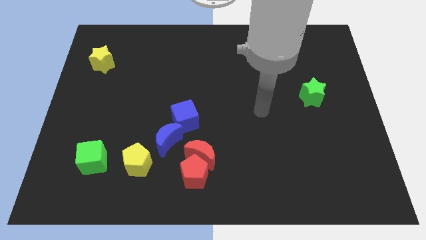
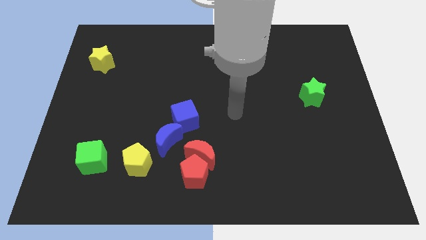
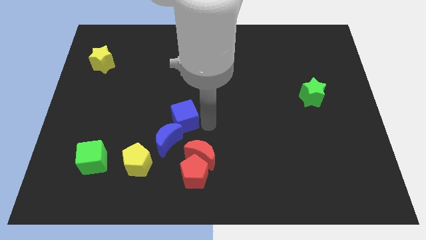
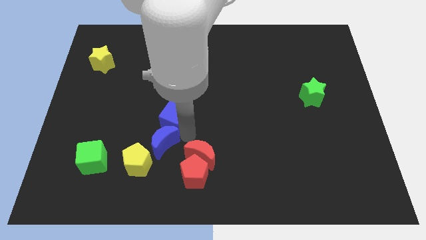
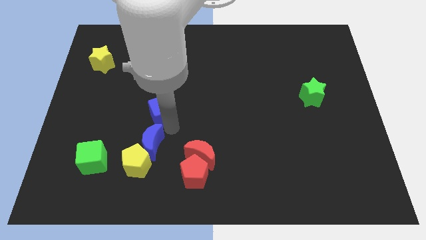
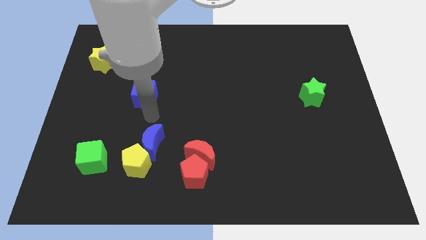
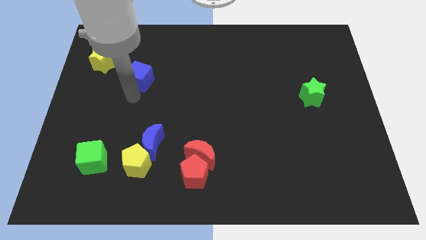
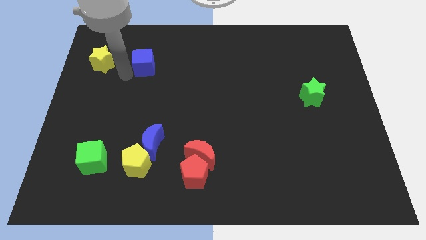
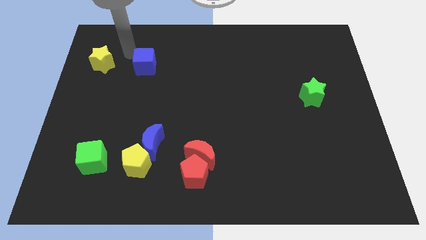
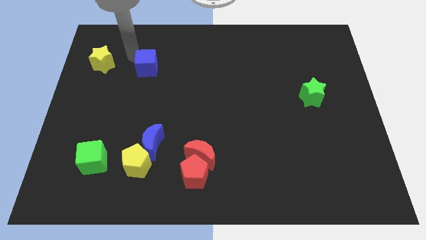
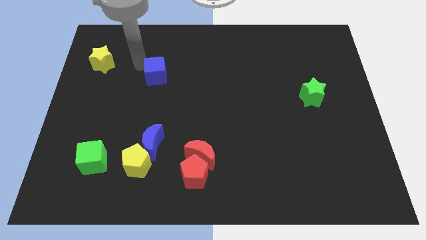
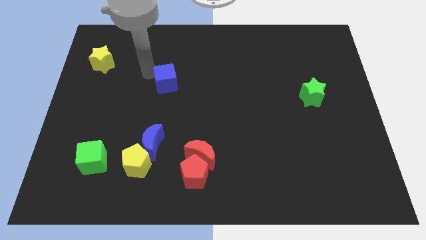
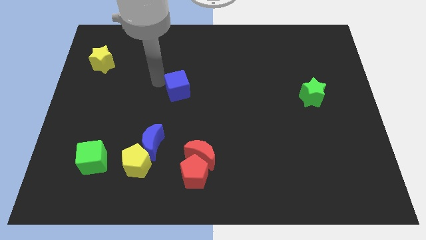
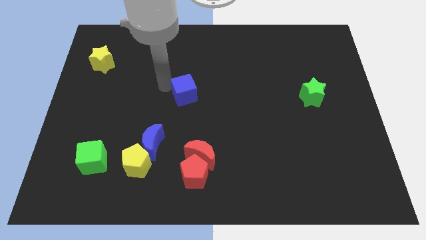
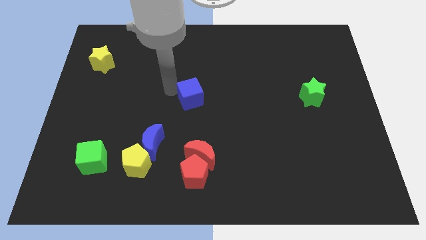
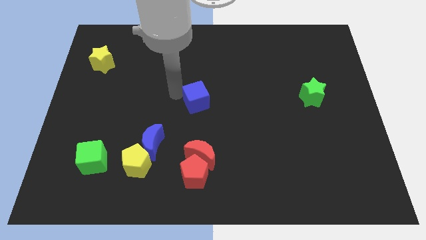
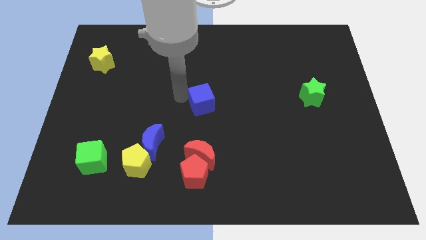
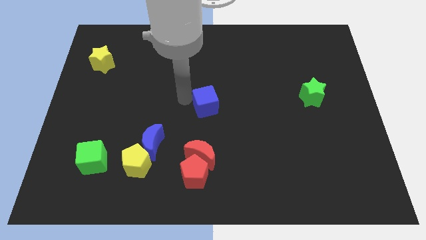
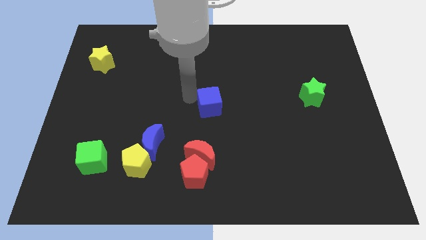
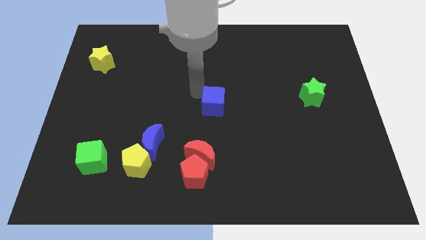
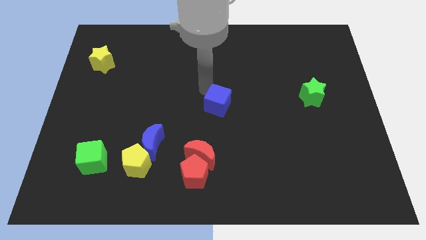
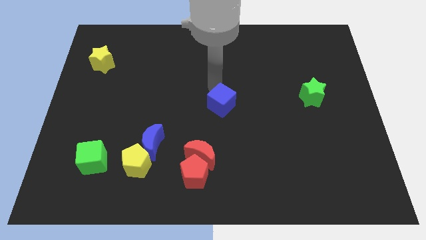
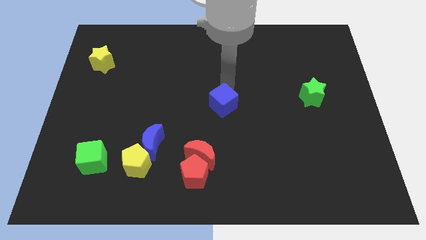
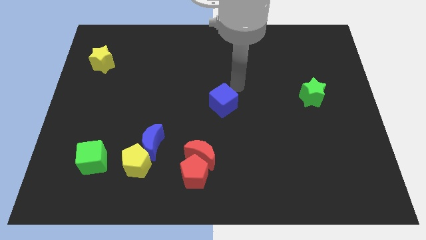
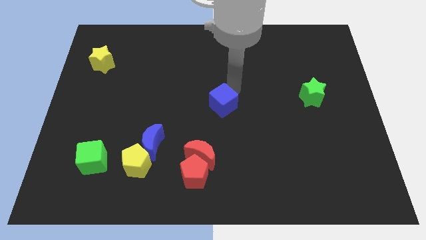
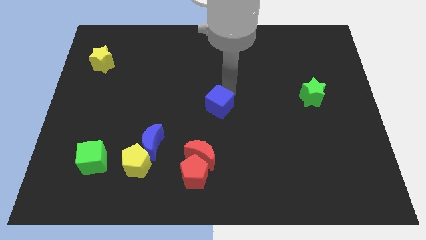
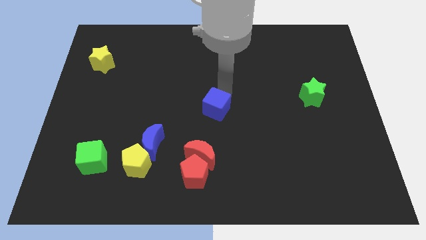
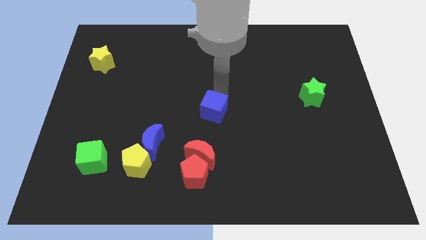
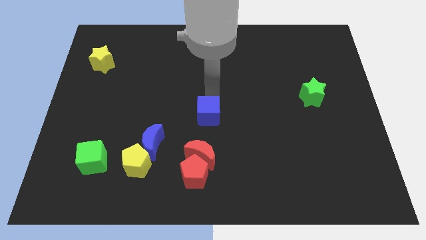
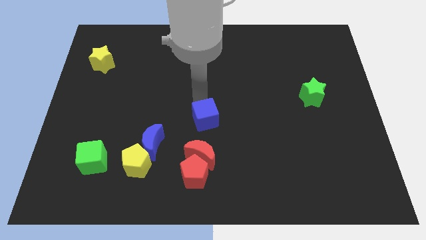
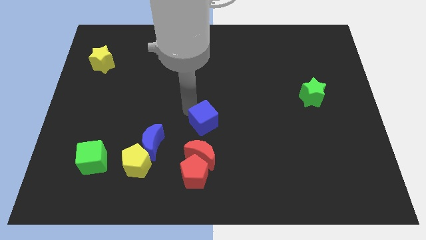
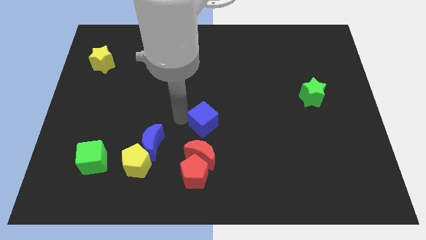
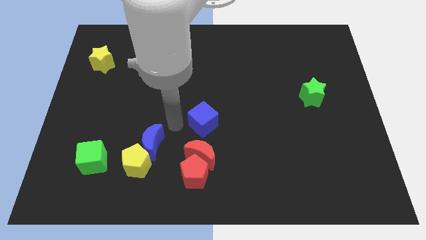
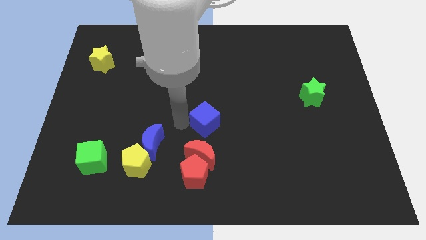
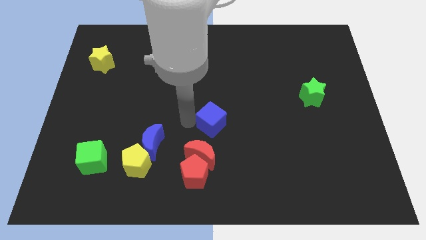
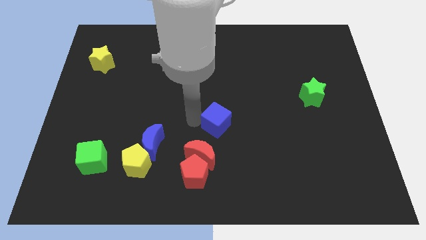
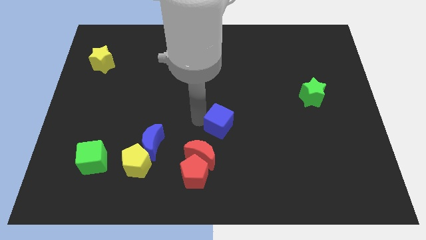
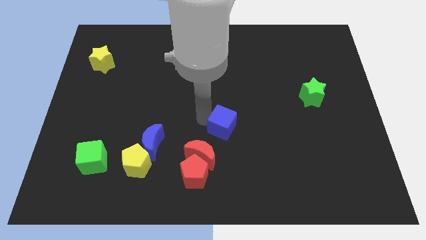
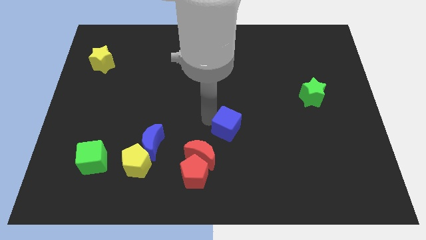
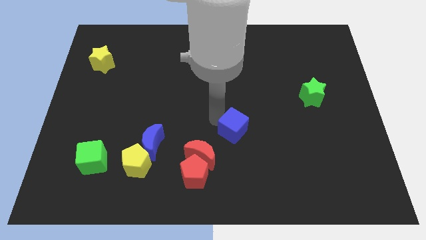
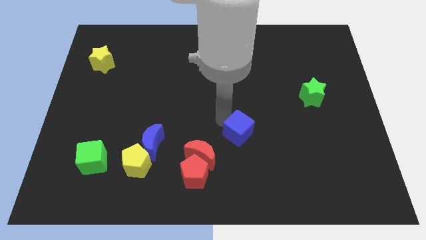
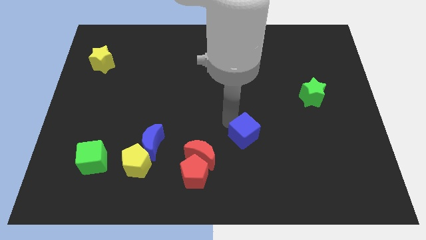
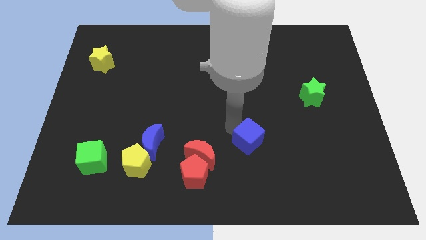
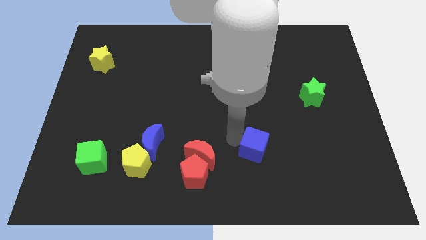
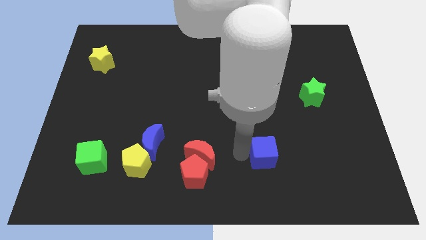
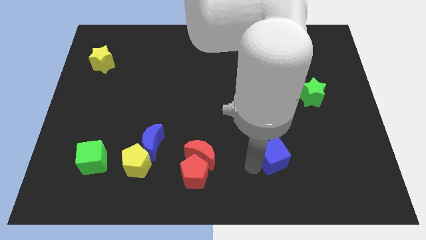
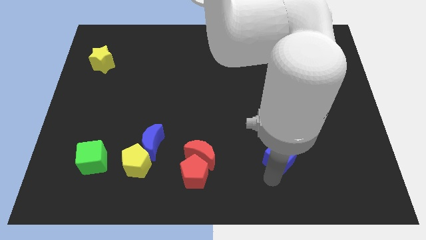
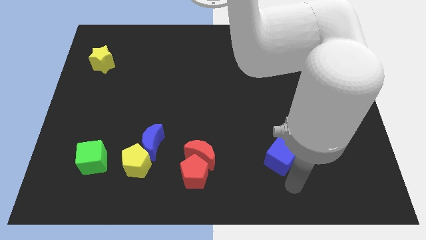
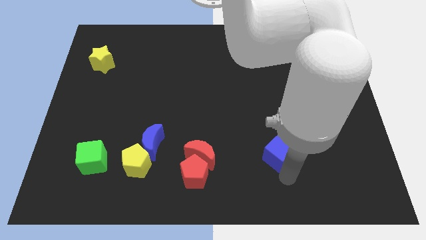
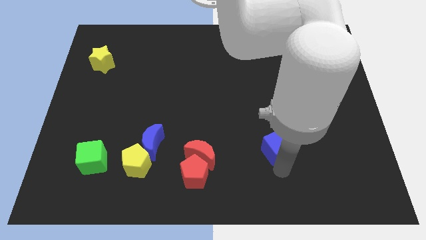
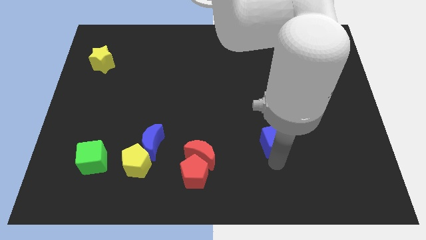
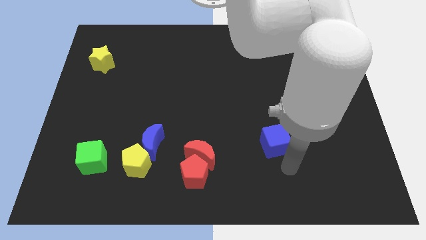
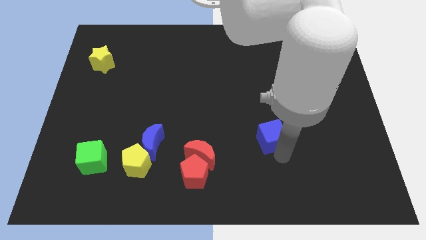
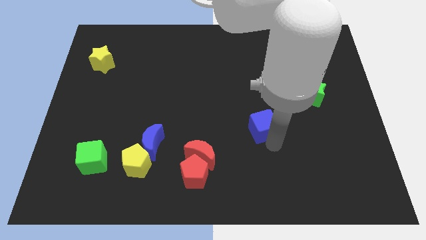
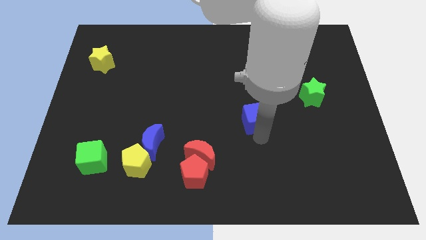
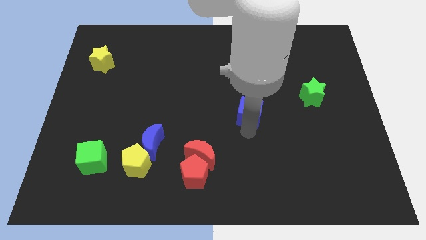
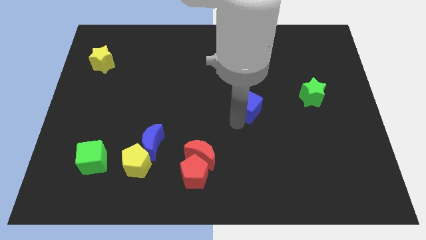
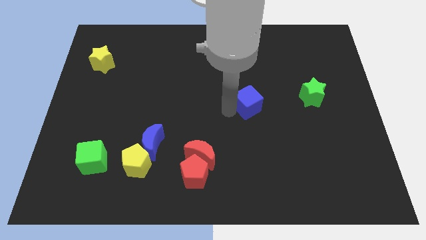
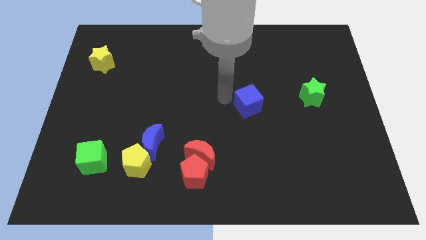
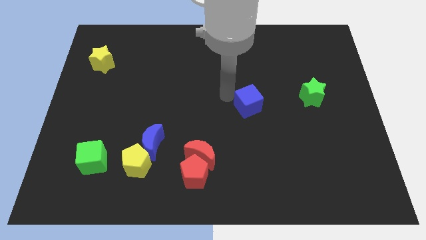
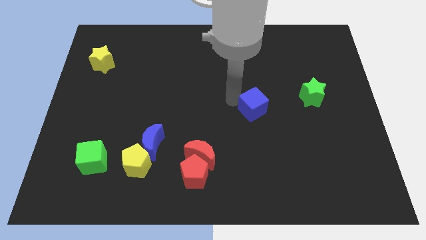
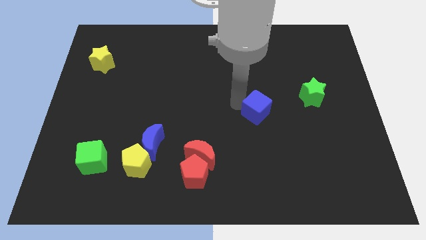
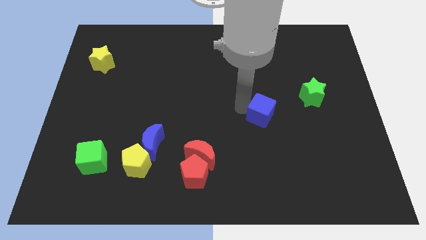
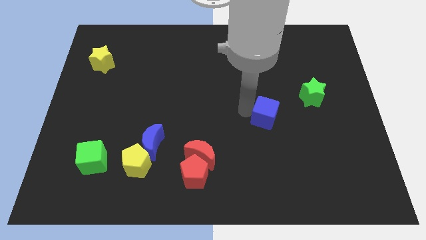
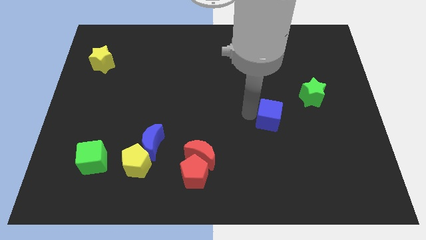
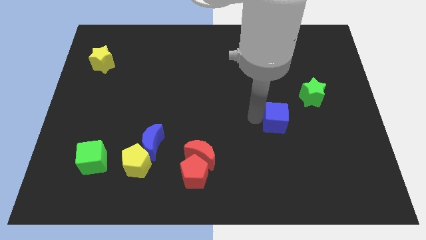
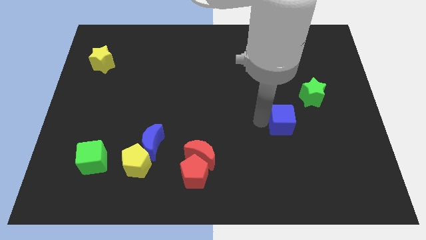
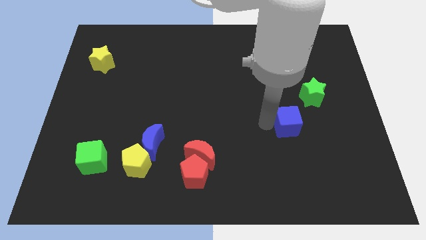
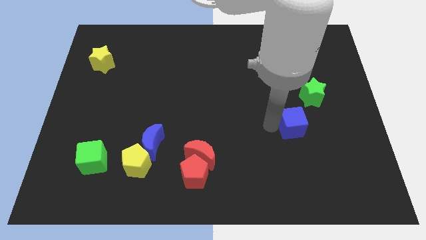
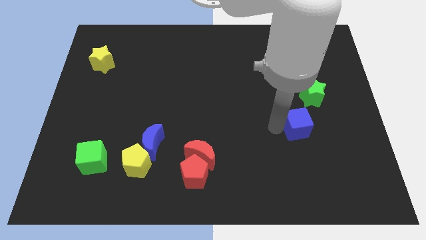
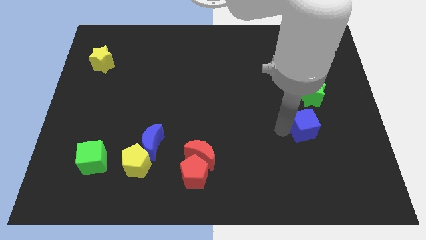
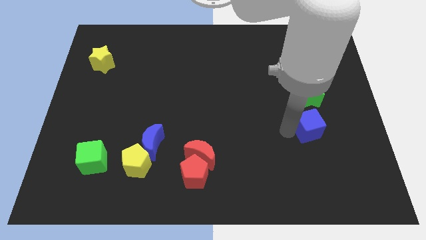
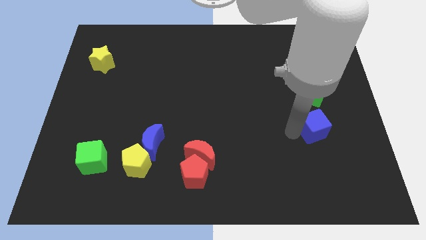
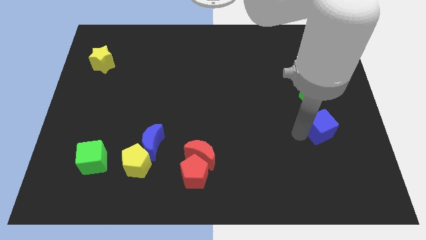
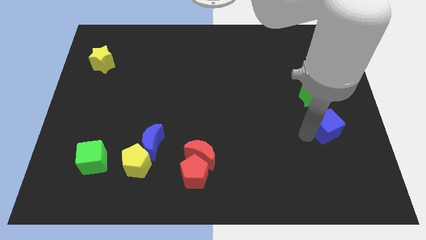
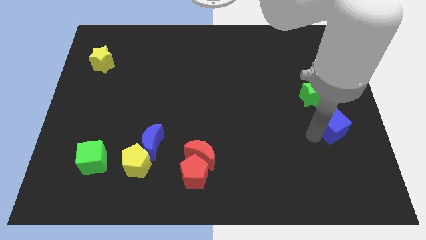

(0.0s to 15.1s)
move the blue cube diagonally down and to the right of the green star
